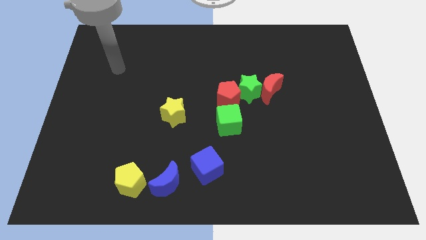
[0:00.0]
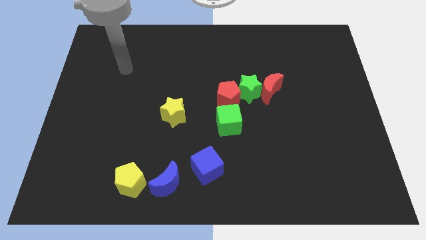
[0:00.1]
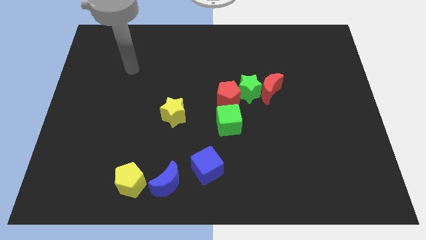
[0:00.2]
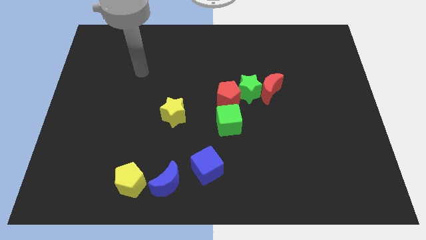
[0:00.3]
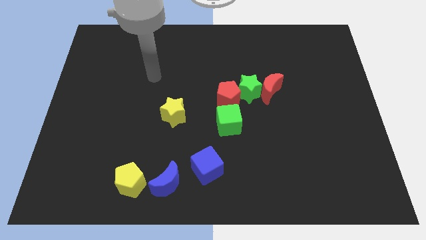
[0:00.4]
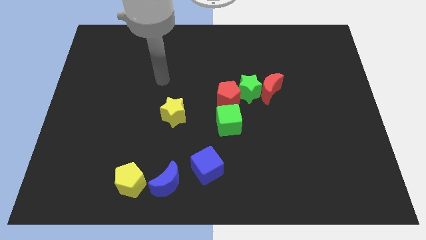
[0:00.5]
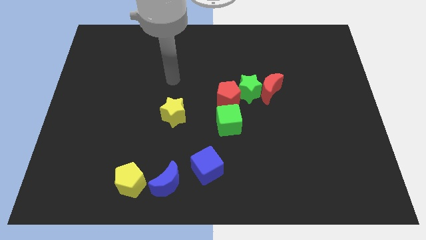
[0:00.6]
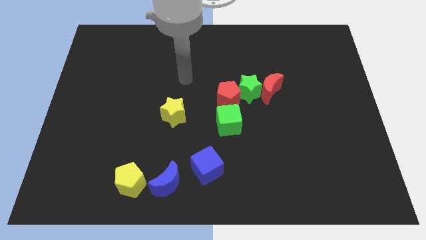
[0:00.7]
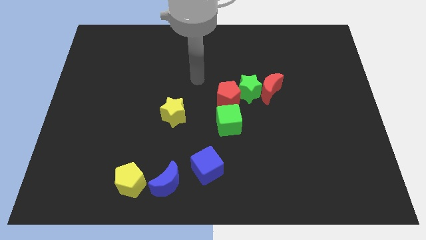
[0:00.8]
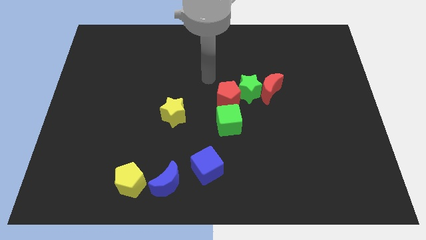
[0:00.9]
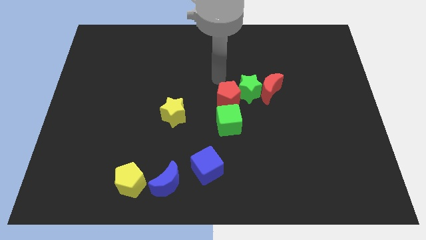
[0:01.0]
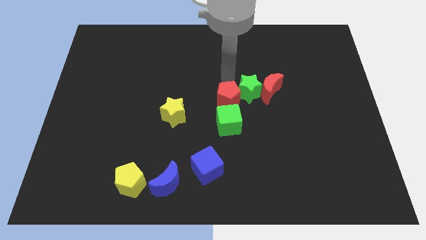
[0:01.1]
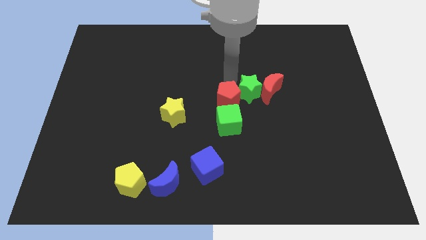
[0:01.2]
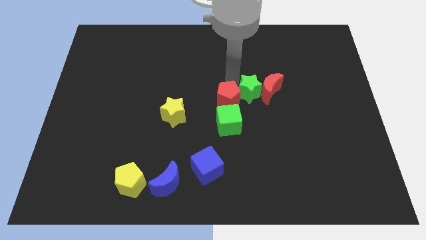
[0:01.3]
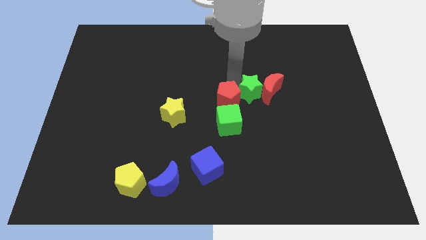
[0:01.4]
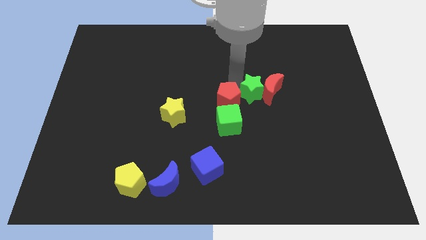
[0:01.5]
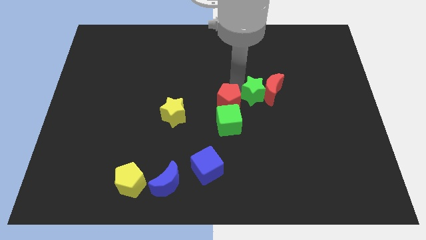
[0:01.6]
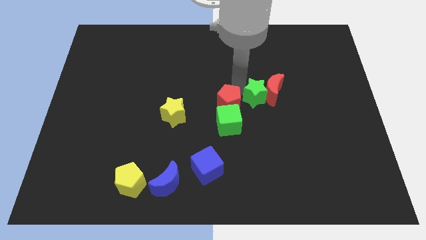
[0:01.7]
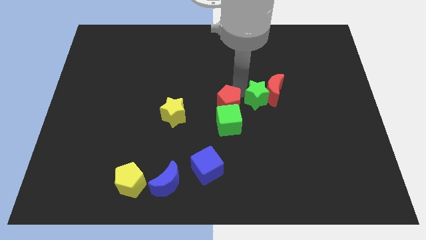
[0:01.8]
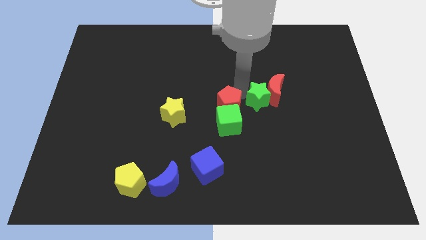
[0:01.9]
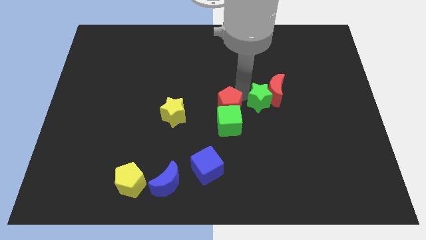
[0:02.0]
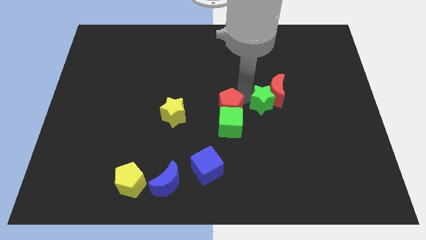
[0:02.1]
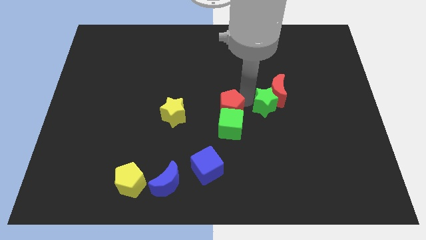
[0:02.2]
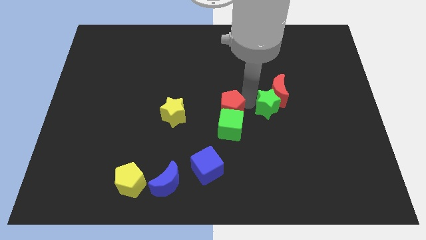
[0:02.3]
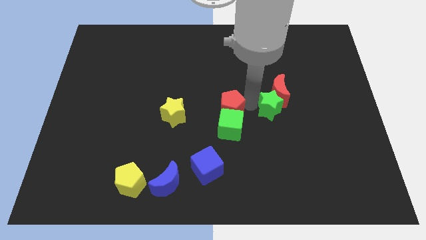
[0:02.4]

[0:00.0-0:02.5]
move the green star somewhat down and to the right

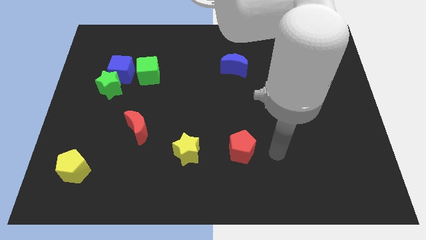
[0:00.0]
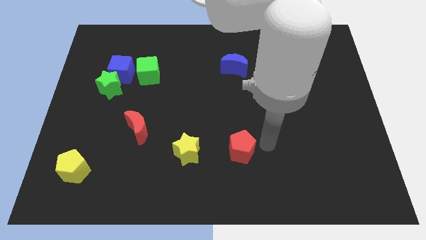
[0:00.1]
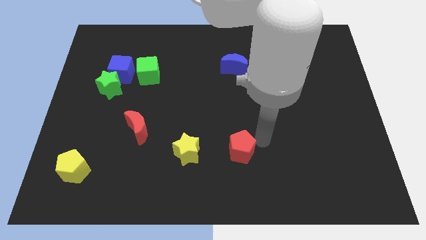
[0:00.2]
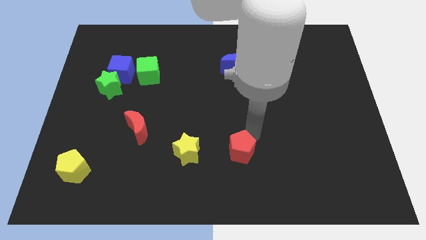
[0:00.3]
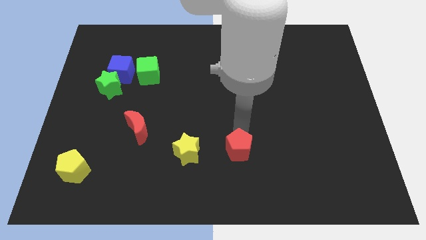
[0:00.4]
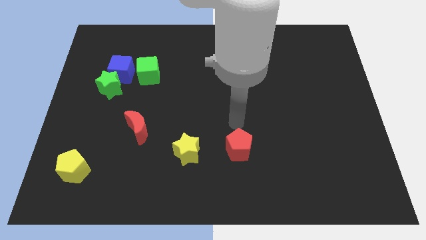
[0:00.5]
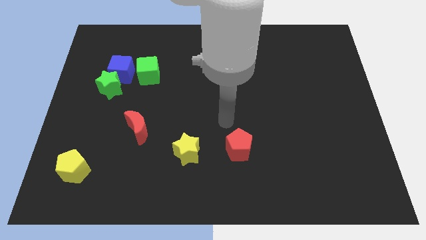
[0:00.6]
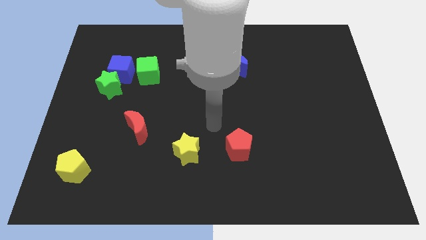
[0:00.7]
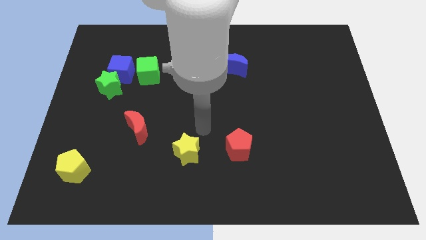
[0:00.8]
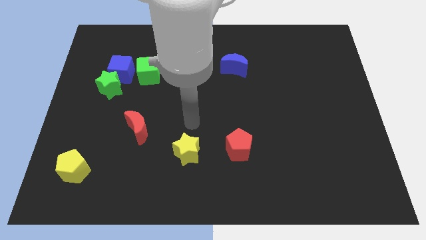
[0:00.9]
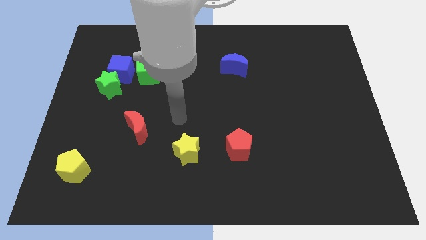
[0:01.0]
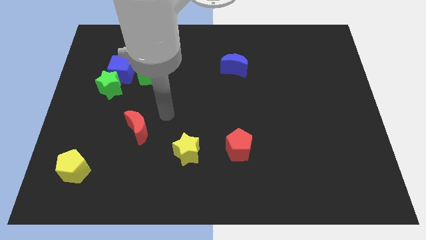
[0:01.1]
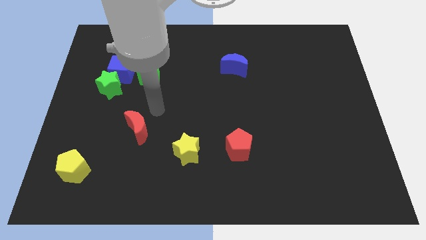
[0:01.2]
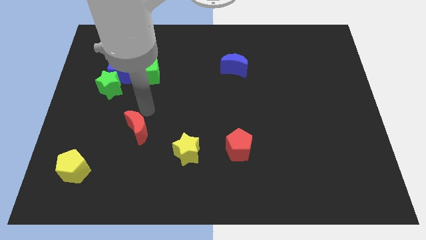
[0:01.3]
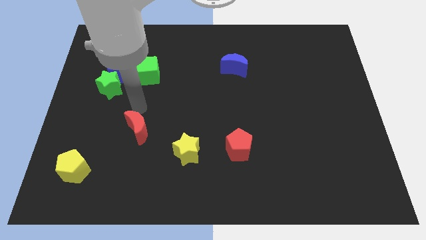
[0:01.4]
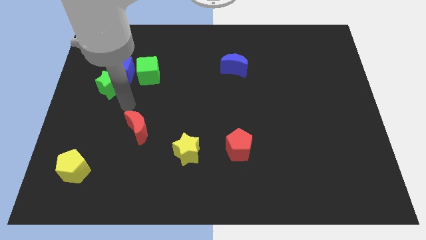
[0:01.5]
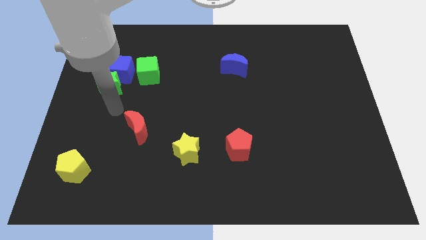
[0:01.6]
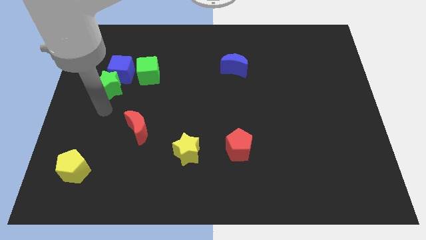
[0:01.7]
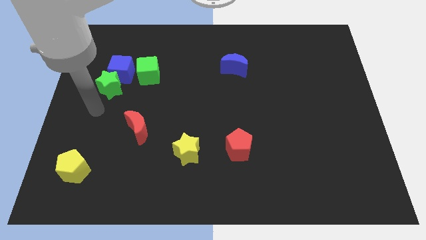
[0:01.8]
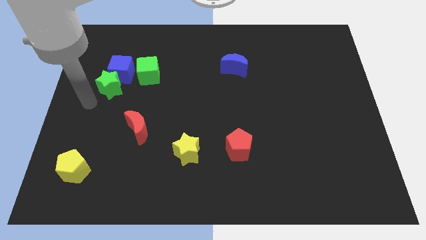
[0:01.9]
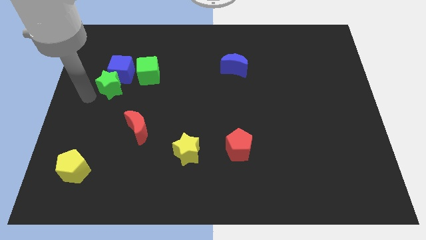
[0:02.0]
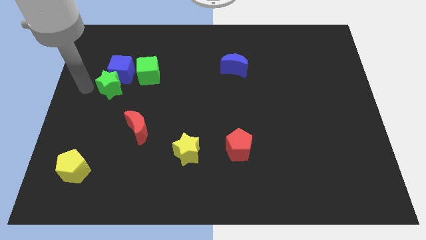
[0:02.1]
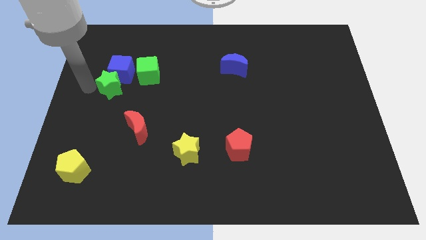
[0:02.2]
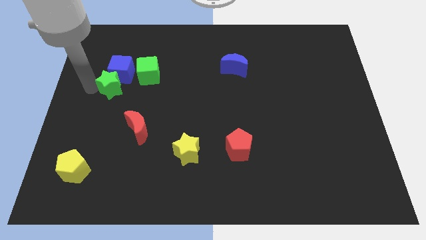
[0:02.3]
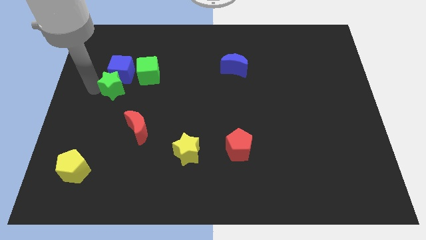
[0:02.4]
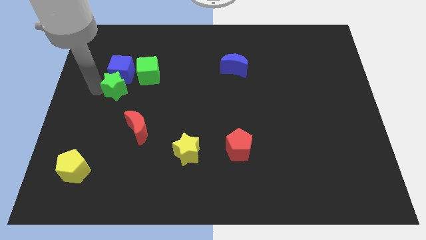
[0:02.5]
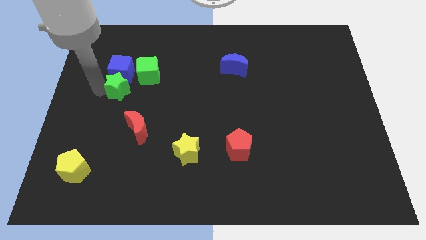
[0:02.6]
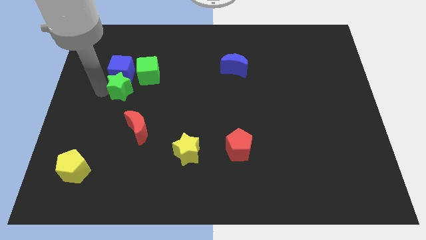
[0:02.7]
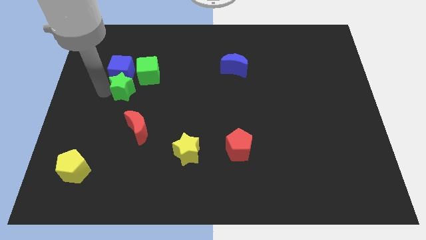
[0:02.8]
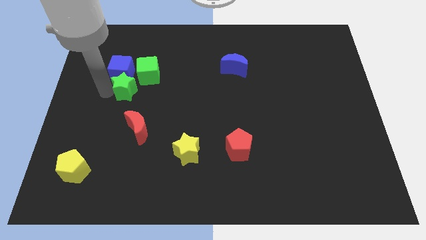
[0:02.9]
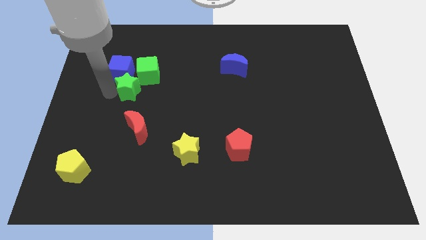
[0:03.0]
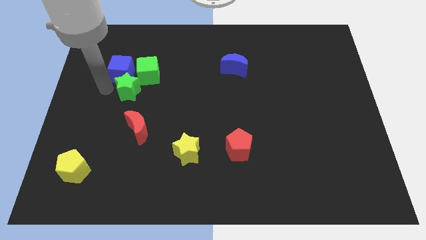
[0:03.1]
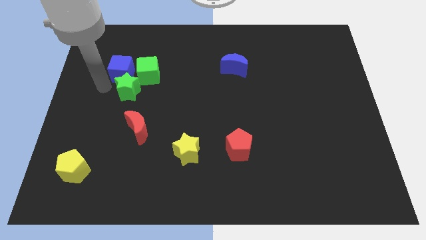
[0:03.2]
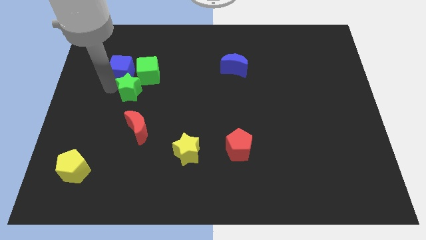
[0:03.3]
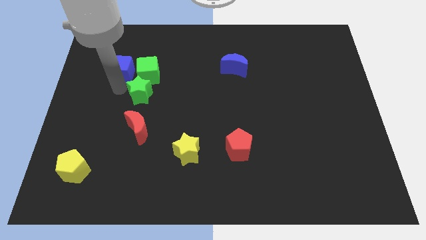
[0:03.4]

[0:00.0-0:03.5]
move the green star a bit to the right

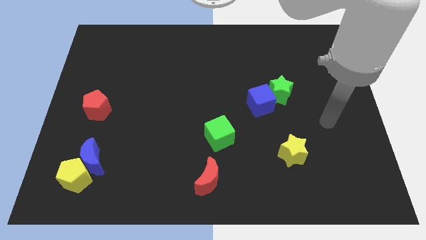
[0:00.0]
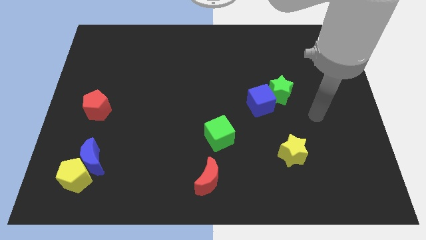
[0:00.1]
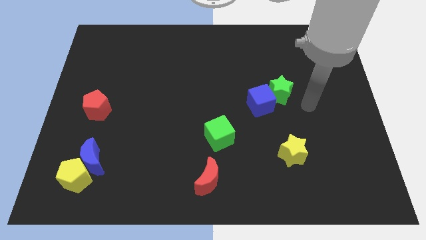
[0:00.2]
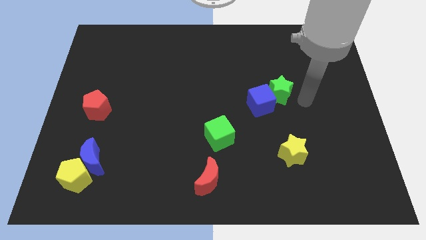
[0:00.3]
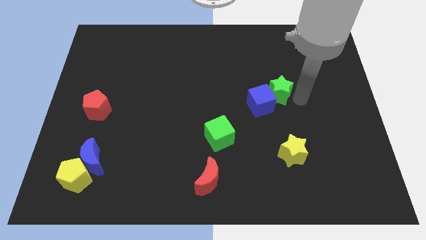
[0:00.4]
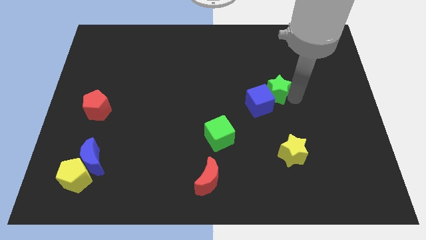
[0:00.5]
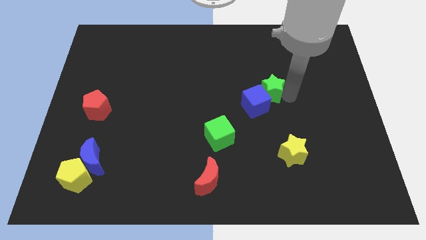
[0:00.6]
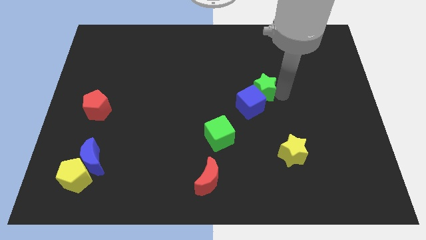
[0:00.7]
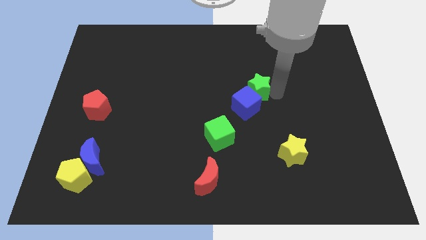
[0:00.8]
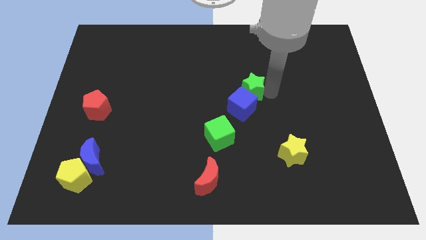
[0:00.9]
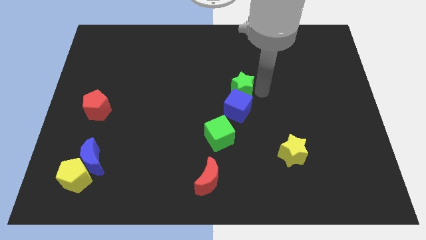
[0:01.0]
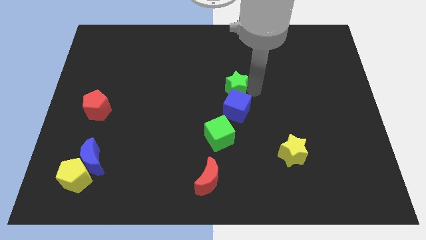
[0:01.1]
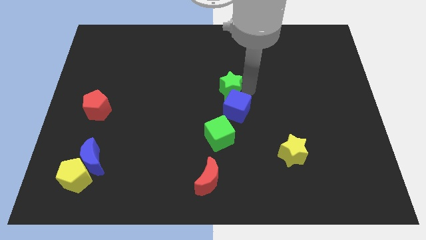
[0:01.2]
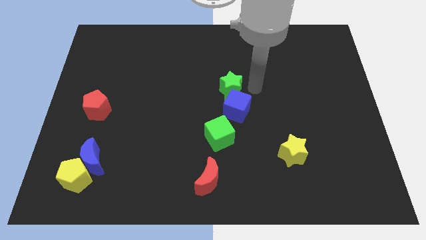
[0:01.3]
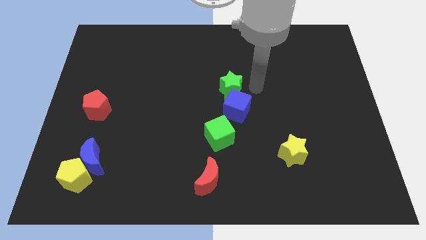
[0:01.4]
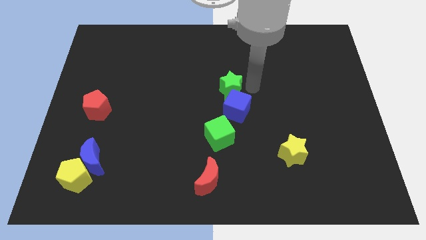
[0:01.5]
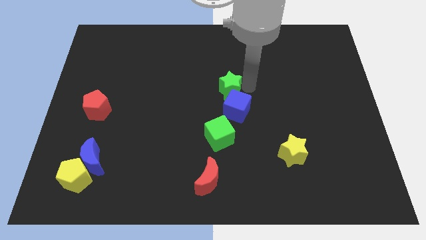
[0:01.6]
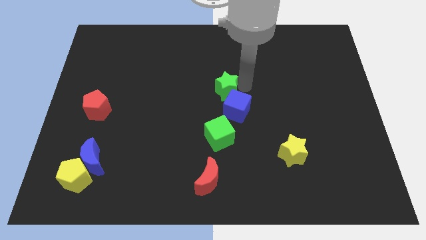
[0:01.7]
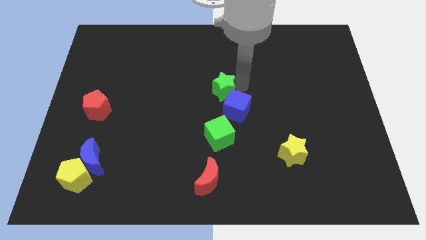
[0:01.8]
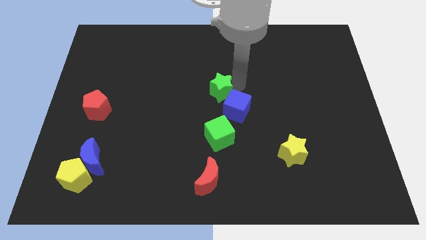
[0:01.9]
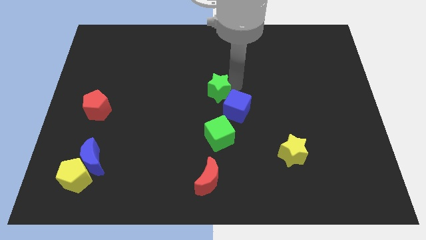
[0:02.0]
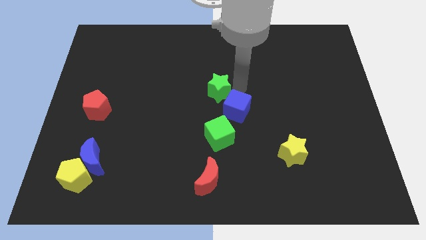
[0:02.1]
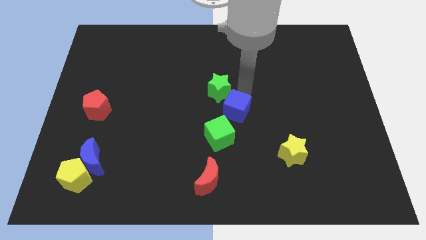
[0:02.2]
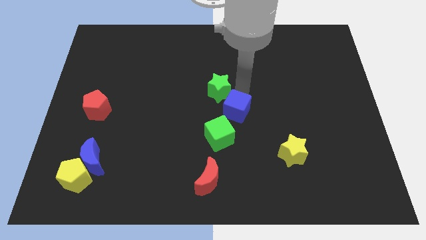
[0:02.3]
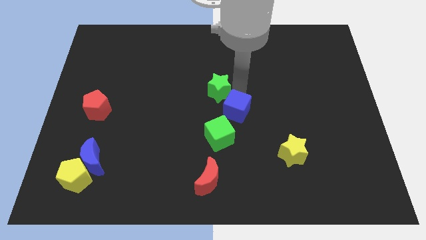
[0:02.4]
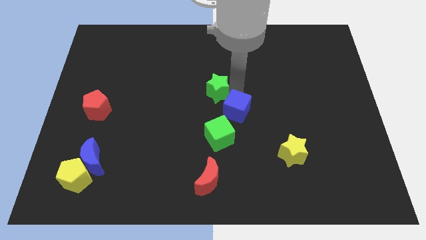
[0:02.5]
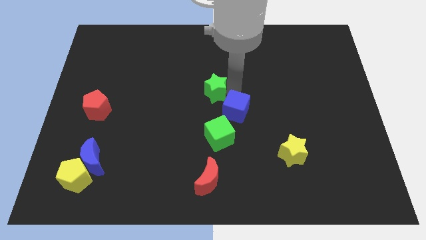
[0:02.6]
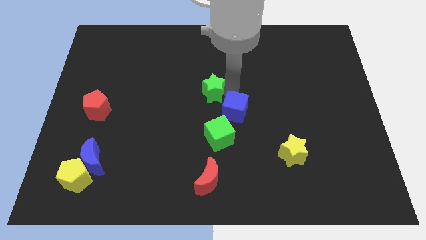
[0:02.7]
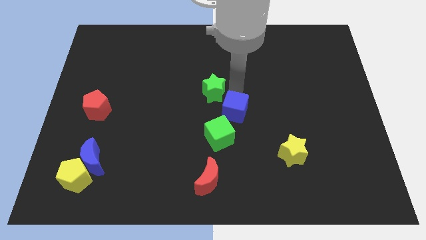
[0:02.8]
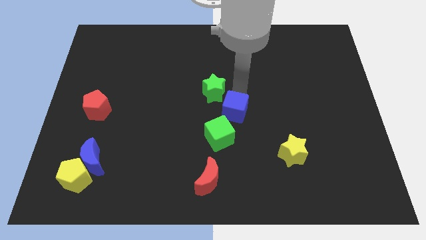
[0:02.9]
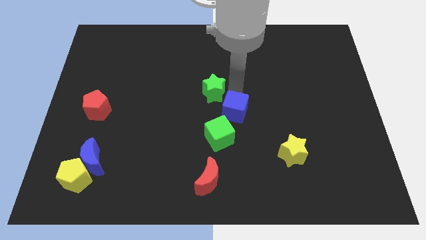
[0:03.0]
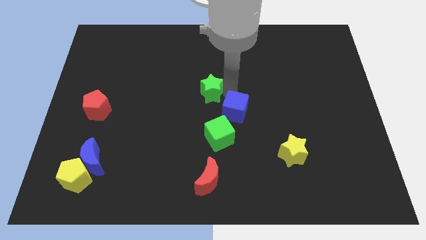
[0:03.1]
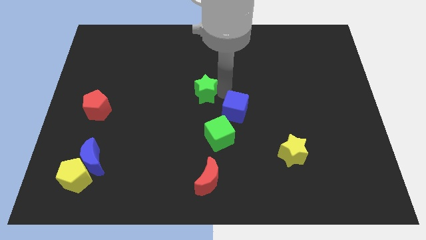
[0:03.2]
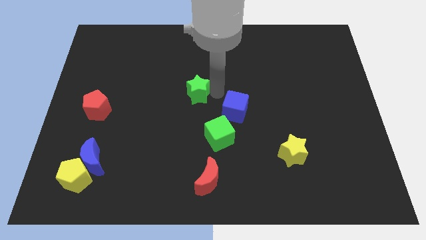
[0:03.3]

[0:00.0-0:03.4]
move the green star left
